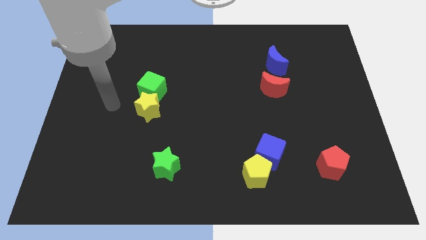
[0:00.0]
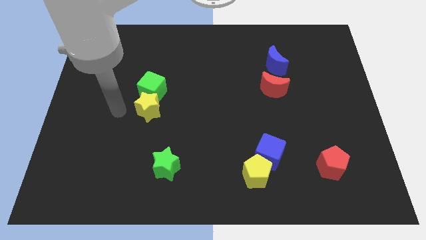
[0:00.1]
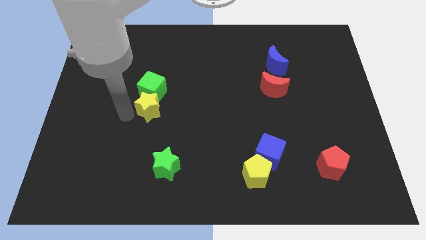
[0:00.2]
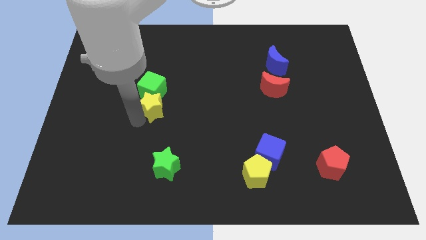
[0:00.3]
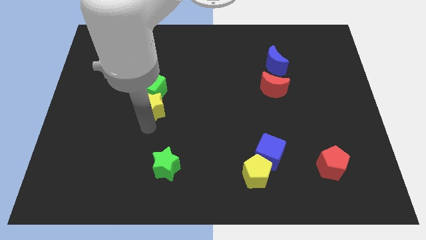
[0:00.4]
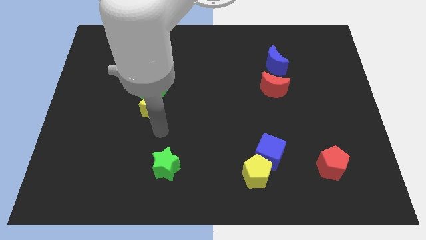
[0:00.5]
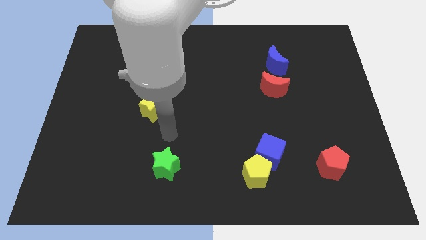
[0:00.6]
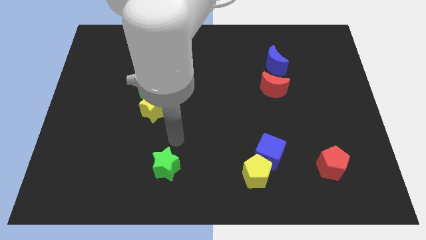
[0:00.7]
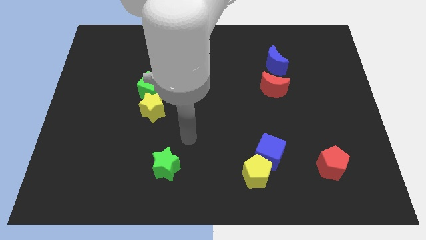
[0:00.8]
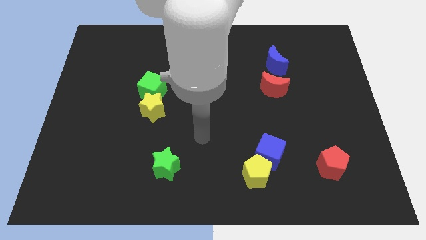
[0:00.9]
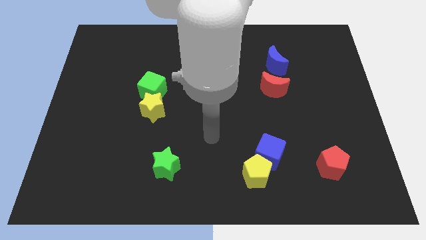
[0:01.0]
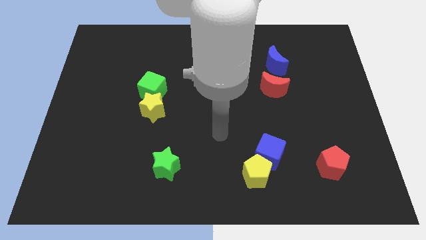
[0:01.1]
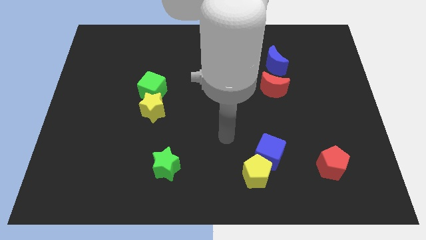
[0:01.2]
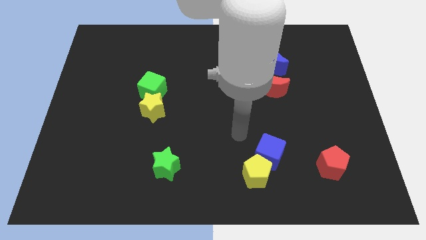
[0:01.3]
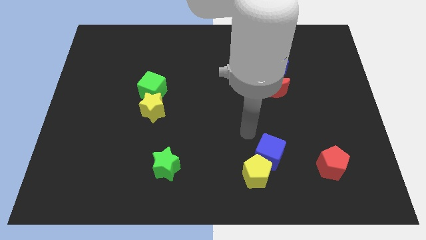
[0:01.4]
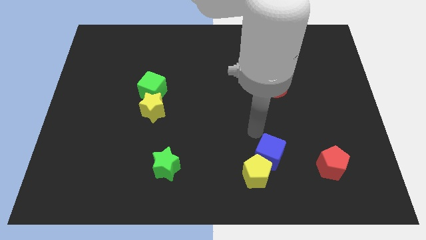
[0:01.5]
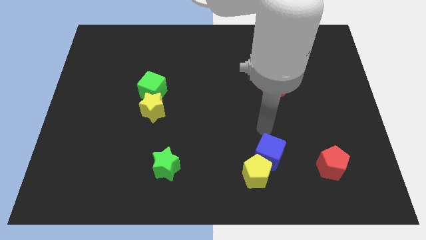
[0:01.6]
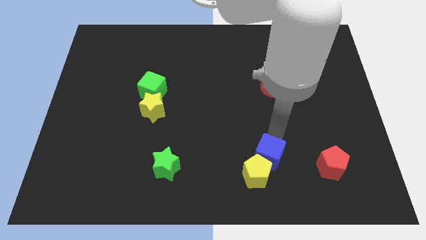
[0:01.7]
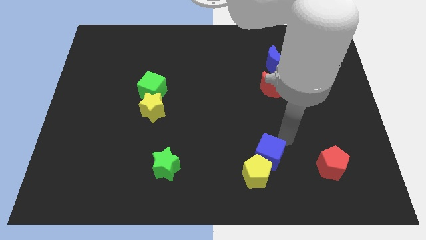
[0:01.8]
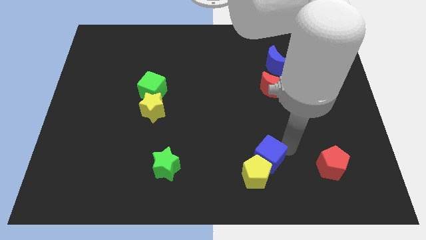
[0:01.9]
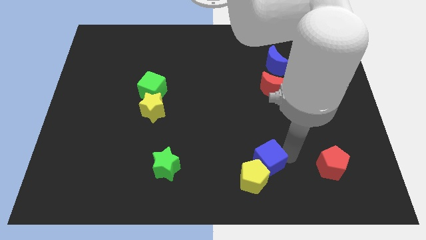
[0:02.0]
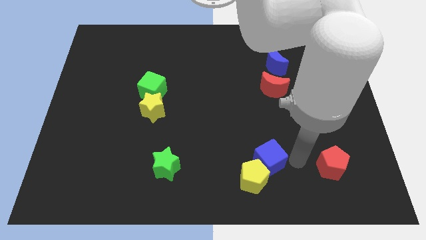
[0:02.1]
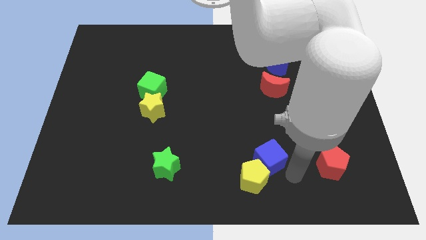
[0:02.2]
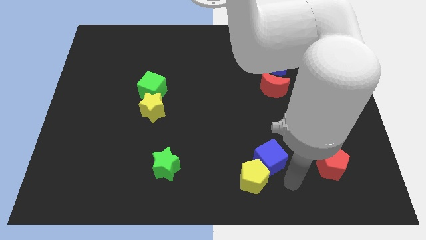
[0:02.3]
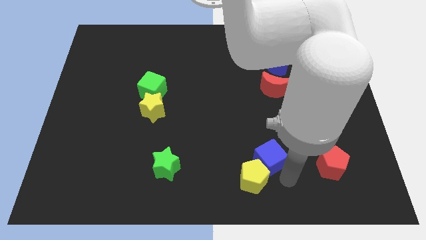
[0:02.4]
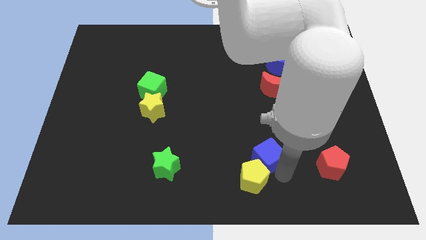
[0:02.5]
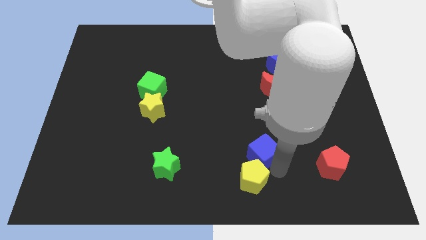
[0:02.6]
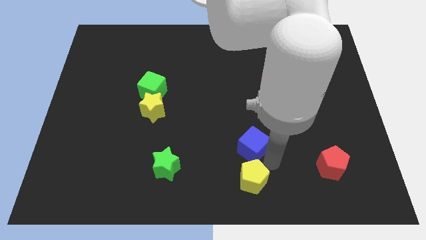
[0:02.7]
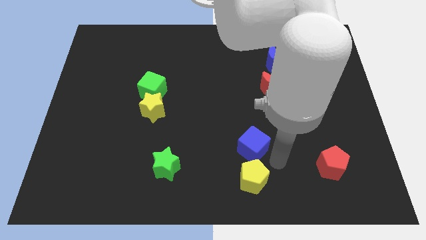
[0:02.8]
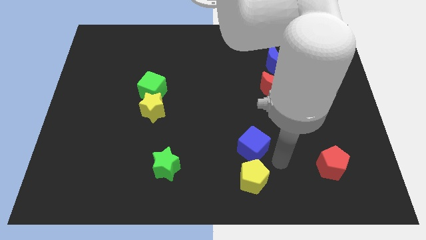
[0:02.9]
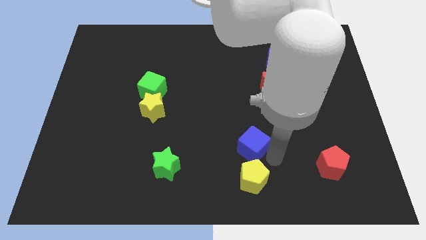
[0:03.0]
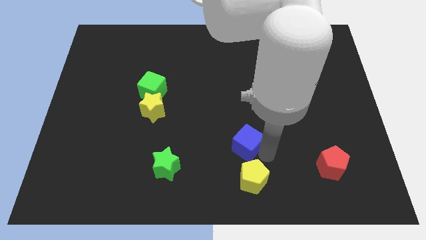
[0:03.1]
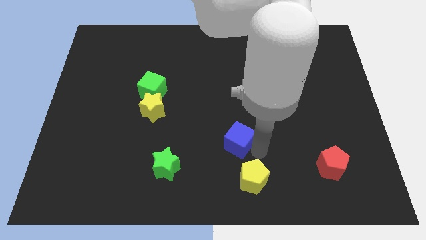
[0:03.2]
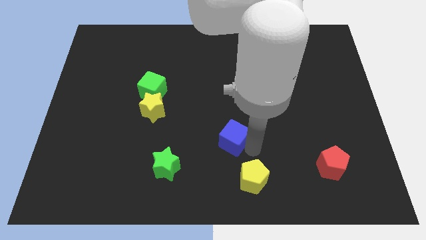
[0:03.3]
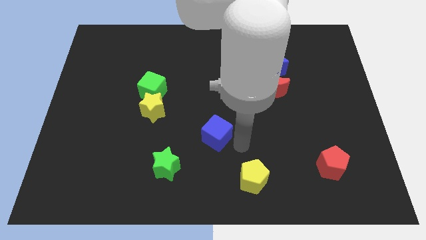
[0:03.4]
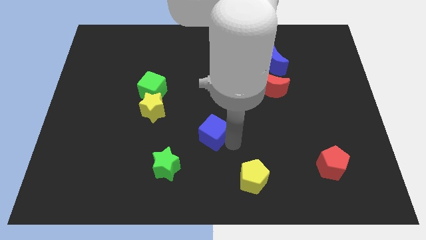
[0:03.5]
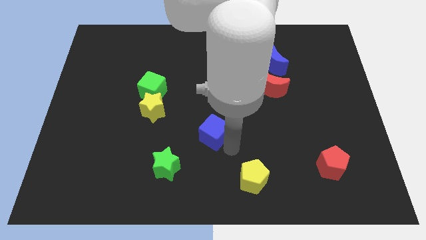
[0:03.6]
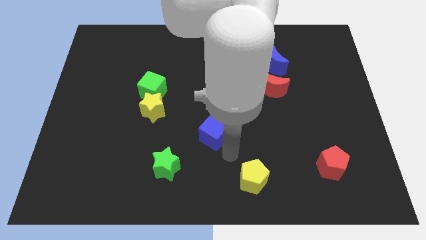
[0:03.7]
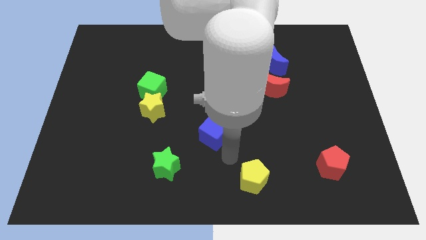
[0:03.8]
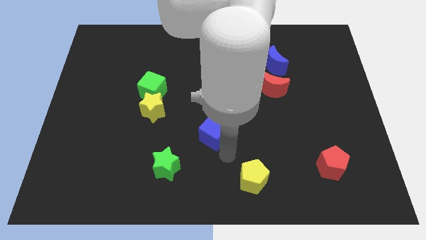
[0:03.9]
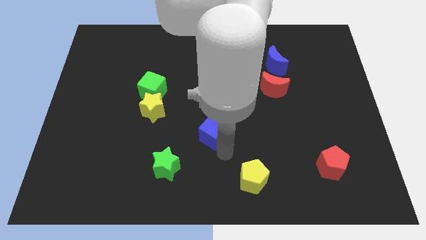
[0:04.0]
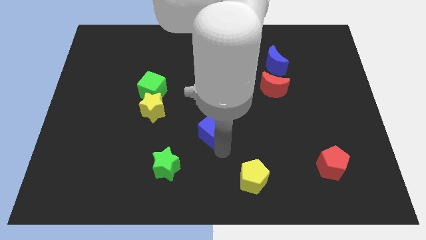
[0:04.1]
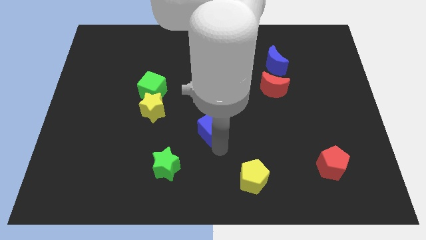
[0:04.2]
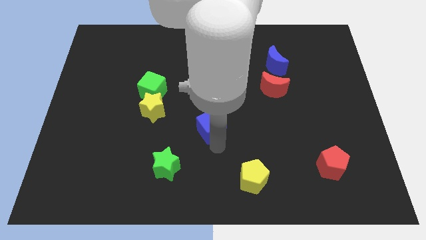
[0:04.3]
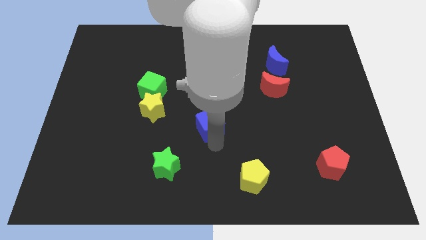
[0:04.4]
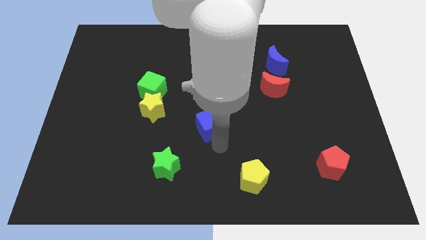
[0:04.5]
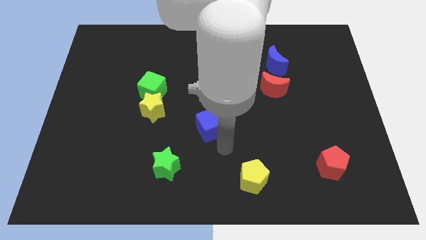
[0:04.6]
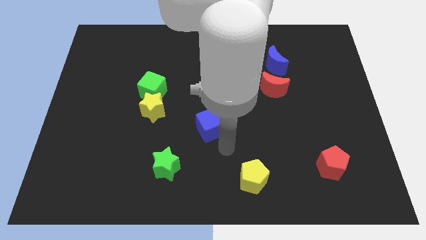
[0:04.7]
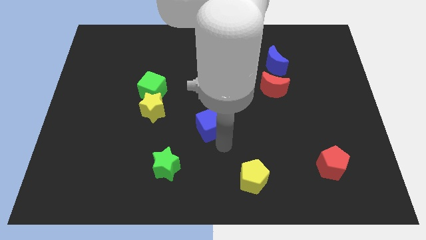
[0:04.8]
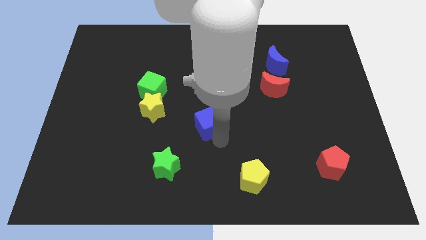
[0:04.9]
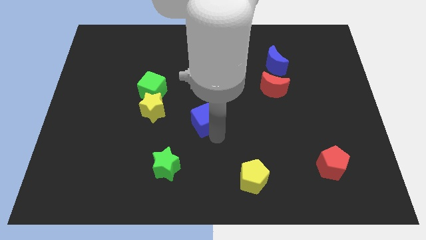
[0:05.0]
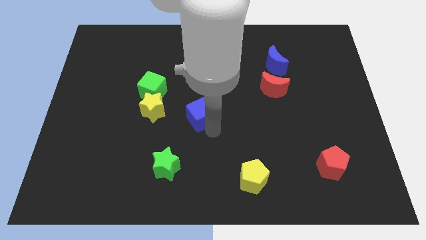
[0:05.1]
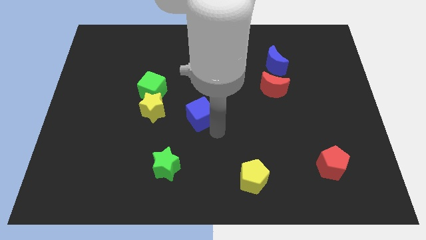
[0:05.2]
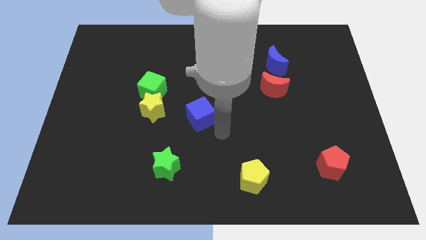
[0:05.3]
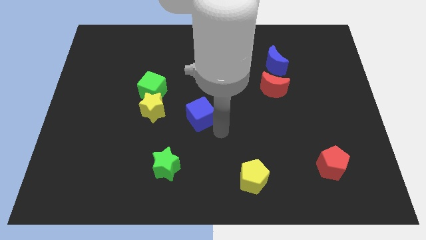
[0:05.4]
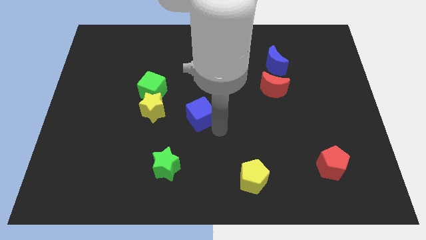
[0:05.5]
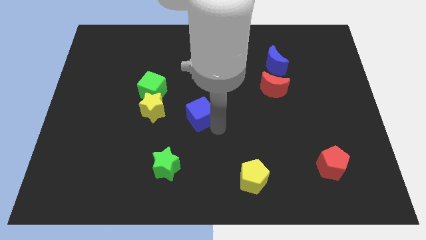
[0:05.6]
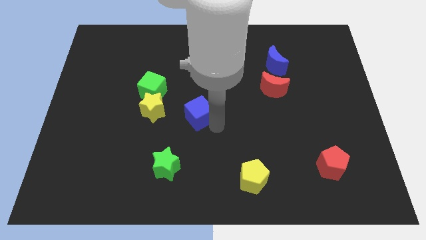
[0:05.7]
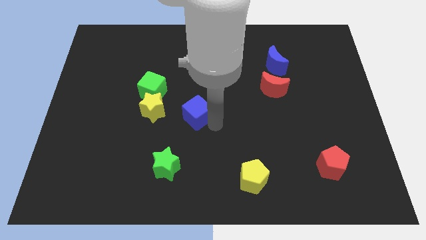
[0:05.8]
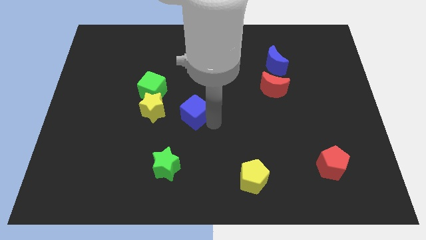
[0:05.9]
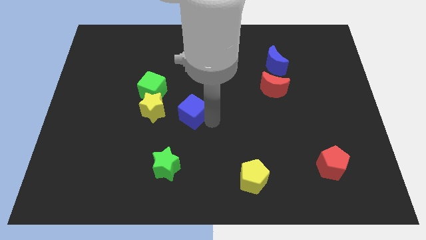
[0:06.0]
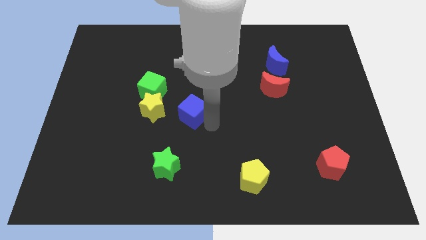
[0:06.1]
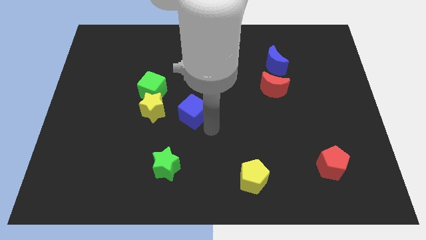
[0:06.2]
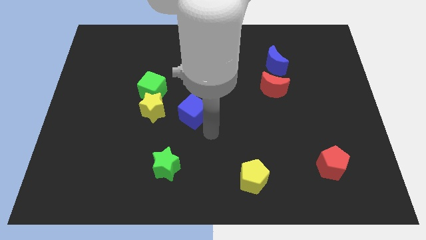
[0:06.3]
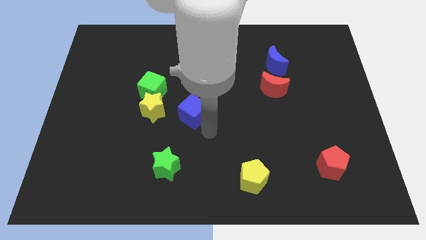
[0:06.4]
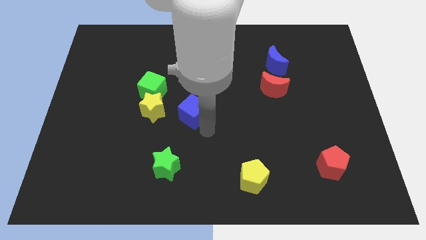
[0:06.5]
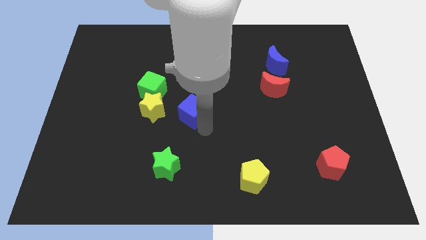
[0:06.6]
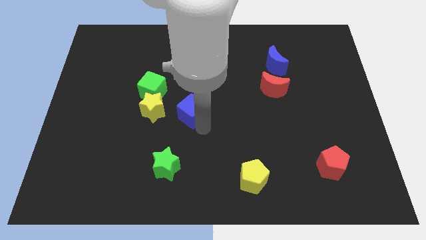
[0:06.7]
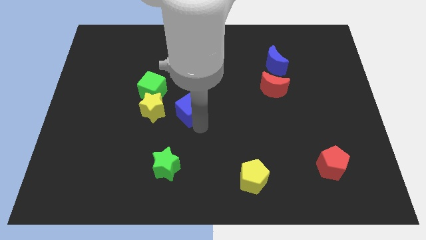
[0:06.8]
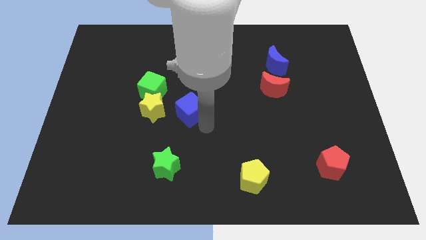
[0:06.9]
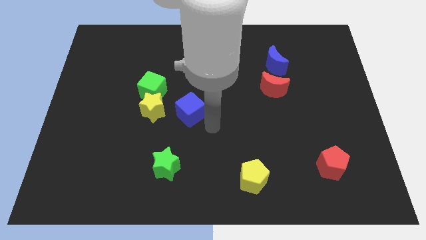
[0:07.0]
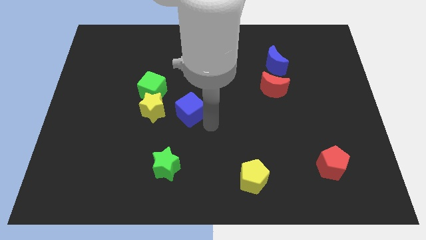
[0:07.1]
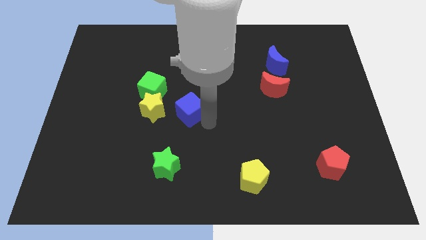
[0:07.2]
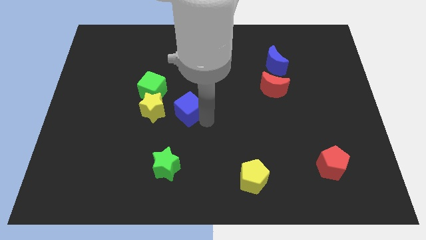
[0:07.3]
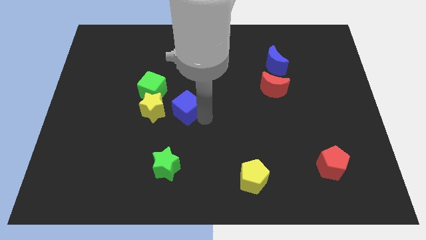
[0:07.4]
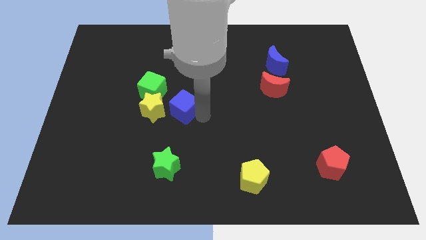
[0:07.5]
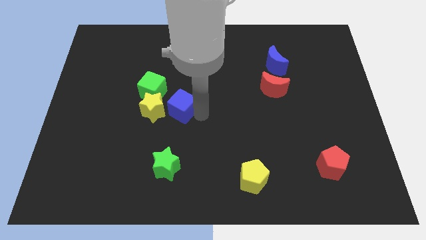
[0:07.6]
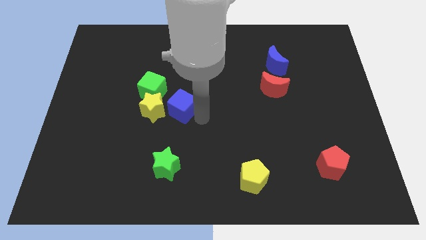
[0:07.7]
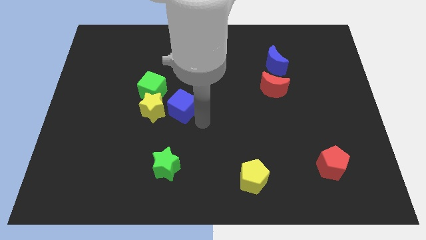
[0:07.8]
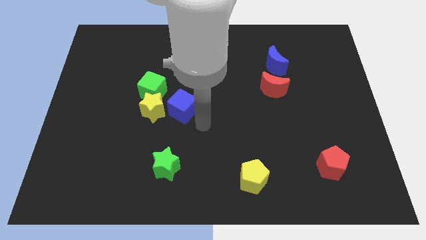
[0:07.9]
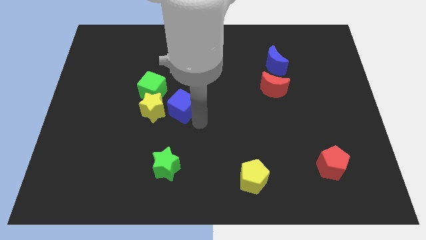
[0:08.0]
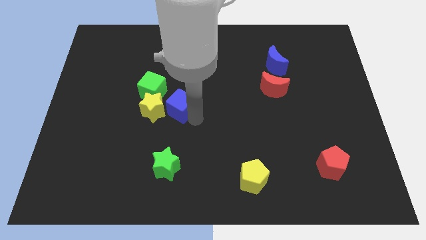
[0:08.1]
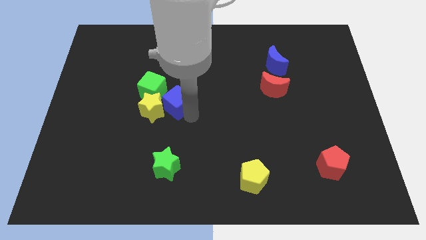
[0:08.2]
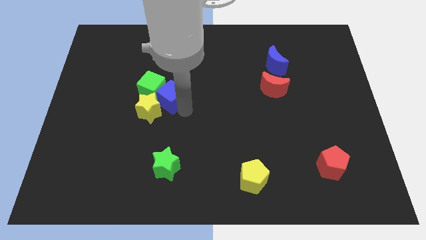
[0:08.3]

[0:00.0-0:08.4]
push the blue cube towards the green cube
